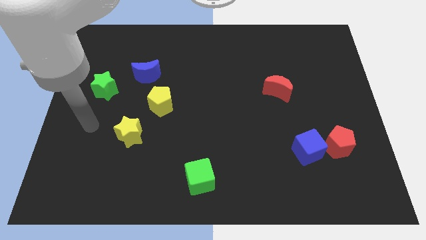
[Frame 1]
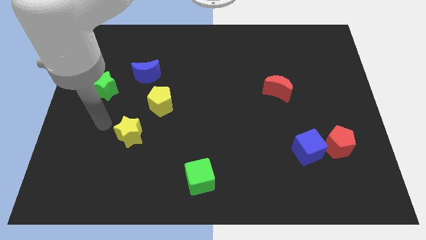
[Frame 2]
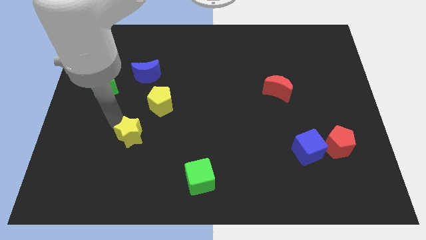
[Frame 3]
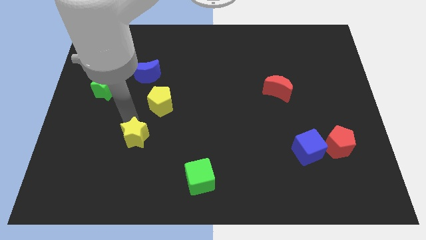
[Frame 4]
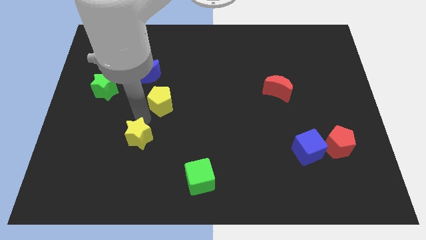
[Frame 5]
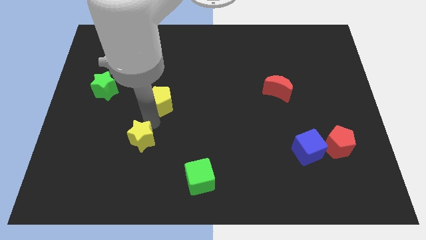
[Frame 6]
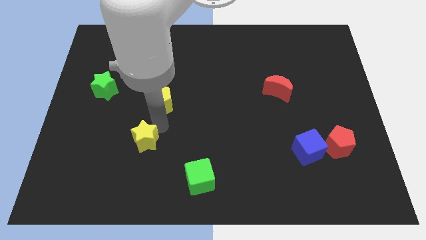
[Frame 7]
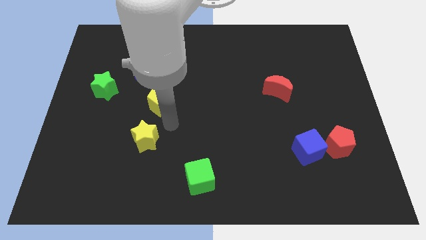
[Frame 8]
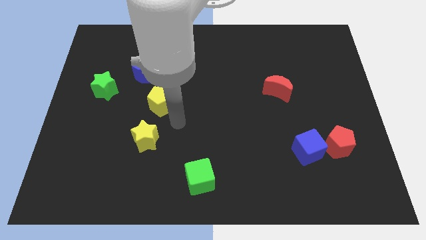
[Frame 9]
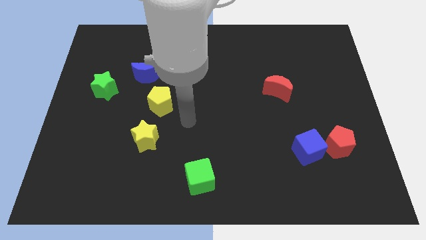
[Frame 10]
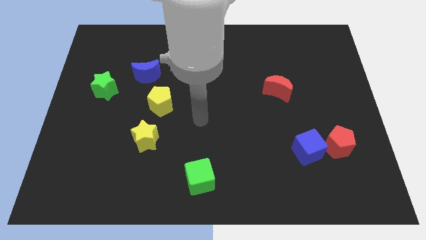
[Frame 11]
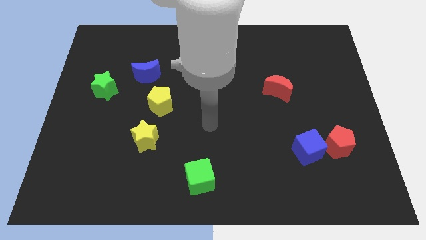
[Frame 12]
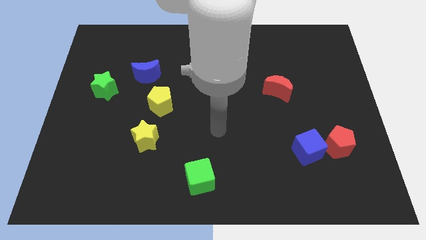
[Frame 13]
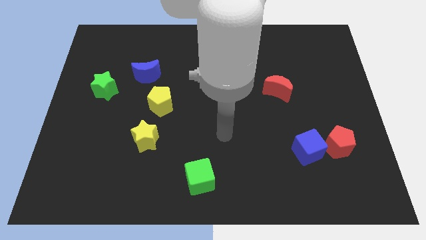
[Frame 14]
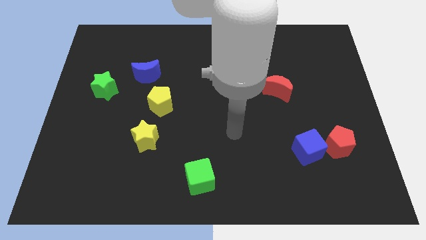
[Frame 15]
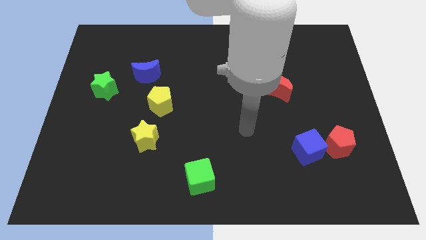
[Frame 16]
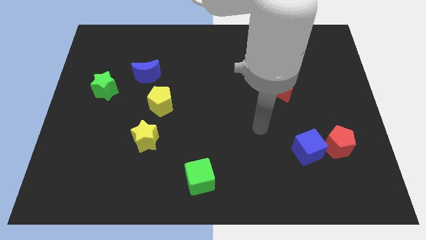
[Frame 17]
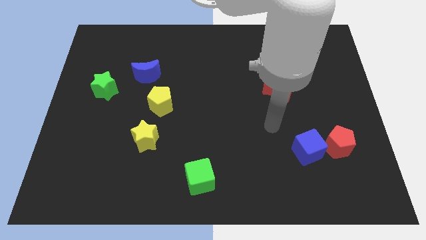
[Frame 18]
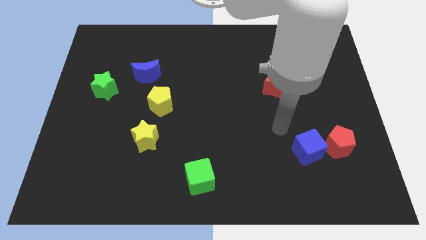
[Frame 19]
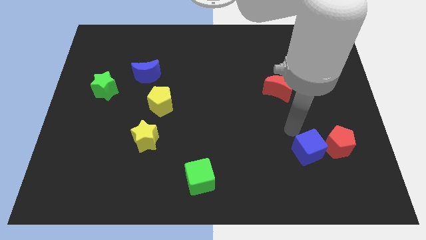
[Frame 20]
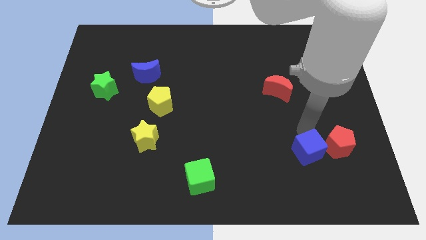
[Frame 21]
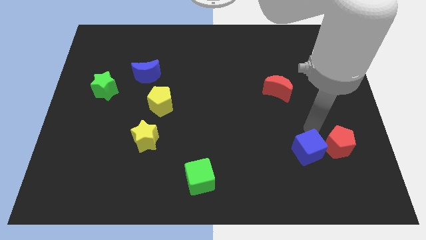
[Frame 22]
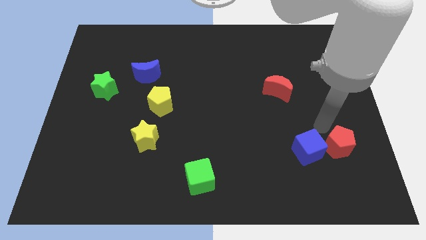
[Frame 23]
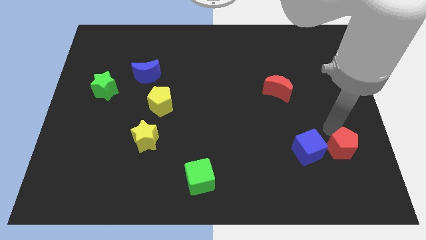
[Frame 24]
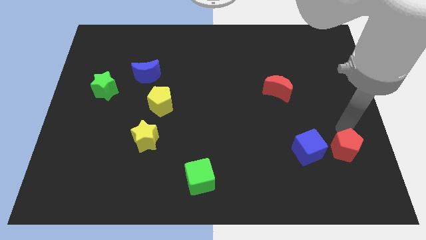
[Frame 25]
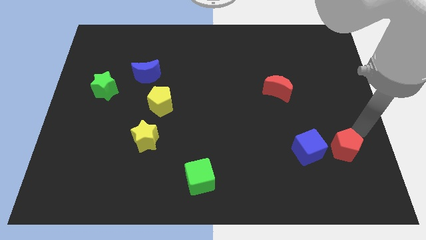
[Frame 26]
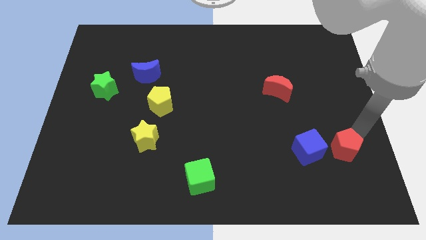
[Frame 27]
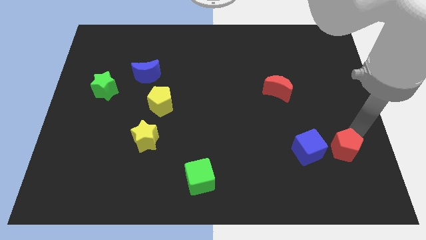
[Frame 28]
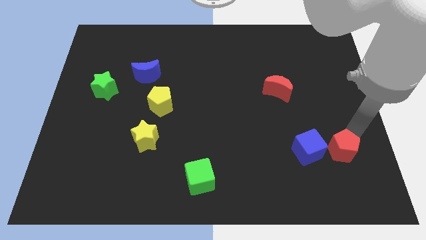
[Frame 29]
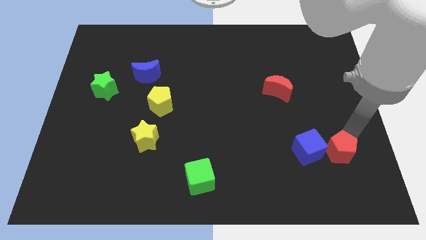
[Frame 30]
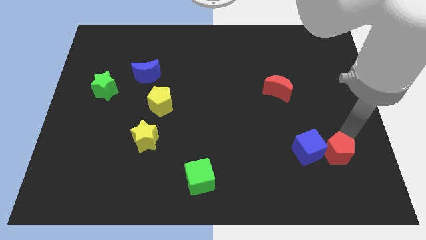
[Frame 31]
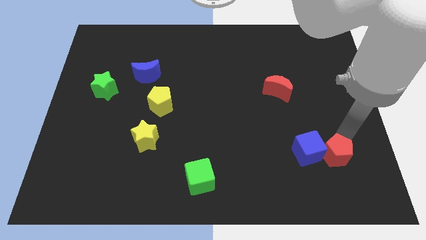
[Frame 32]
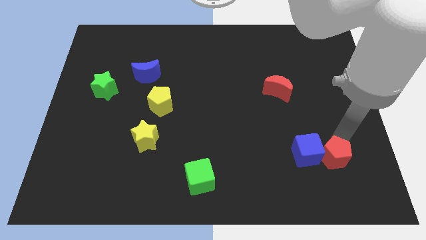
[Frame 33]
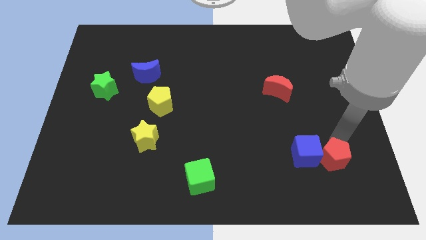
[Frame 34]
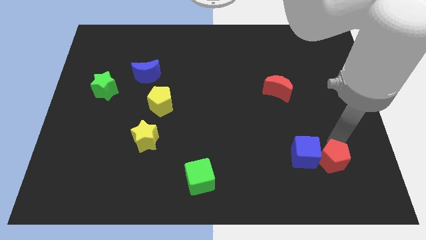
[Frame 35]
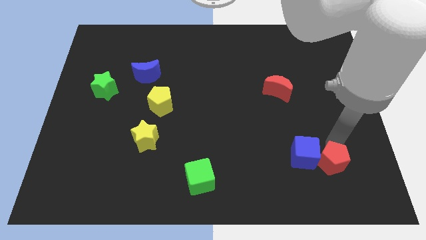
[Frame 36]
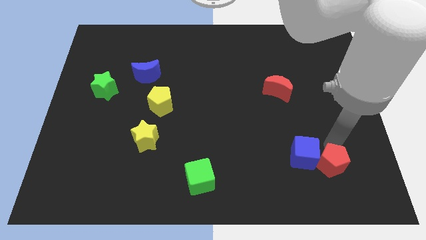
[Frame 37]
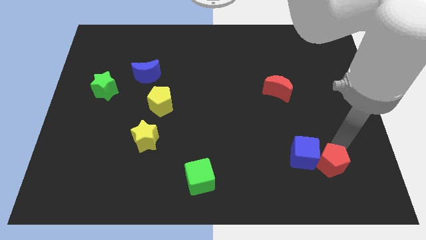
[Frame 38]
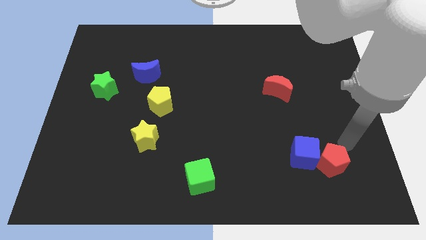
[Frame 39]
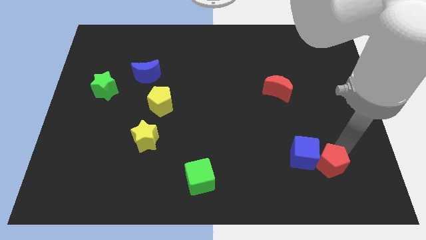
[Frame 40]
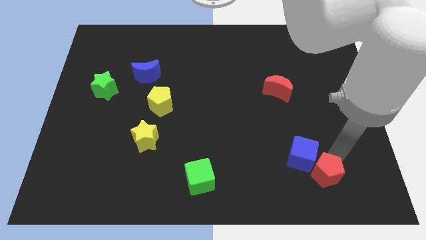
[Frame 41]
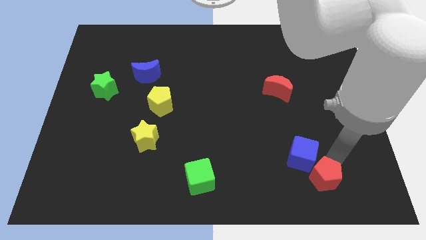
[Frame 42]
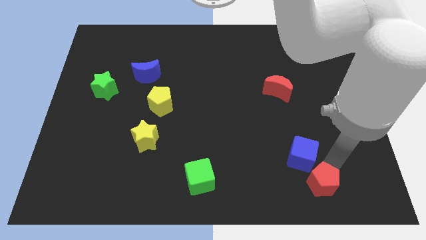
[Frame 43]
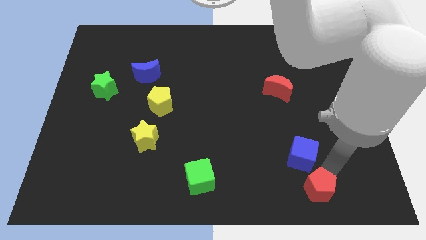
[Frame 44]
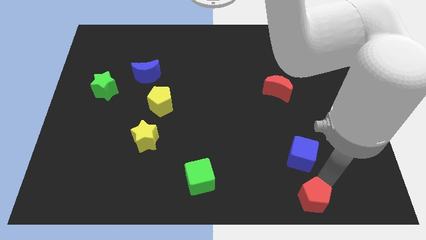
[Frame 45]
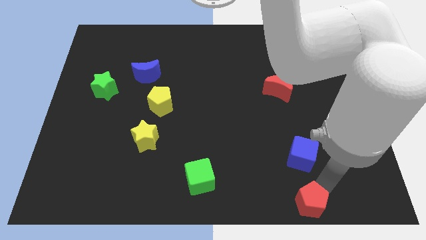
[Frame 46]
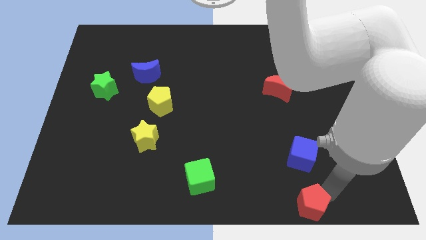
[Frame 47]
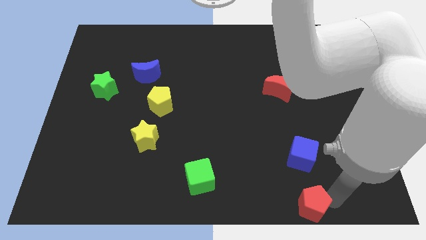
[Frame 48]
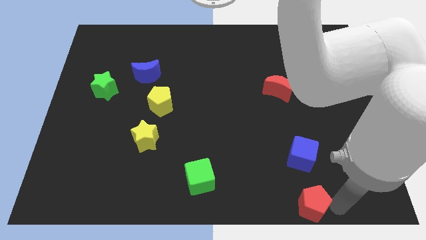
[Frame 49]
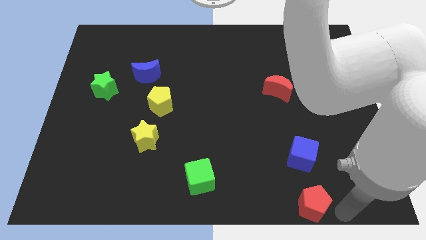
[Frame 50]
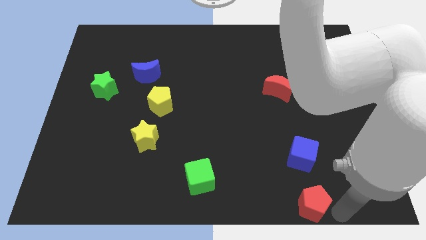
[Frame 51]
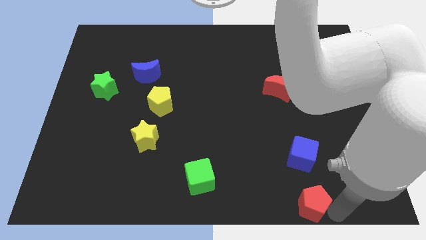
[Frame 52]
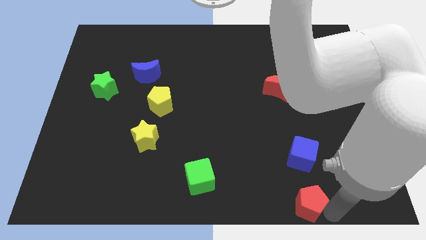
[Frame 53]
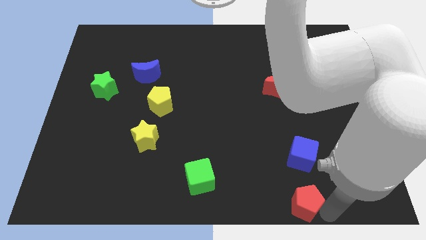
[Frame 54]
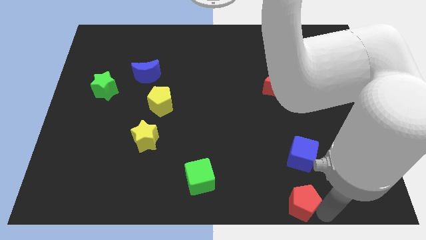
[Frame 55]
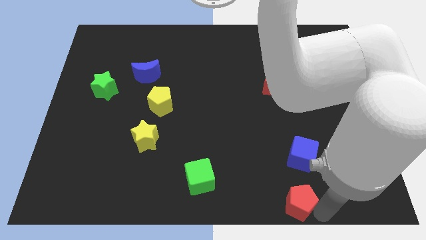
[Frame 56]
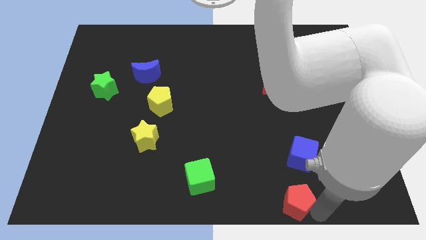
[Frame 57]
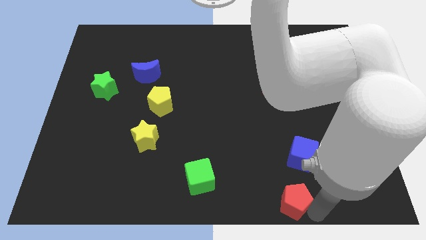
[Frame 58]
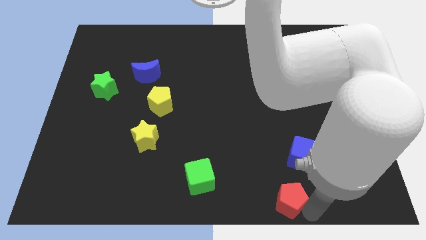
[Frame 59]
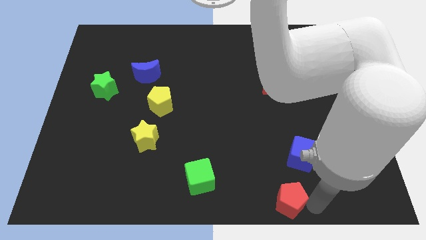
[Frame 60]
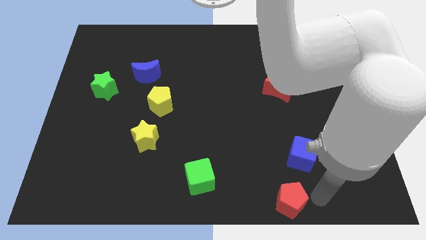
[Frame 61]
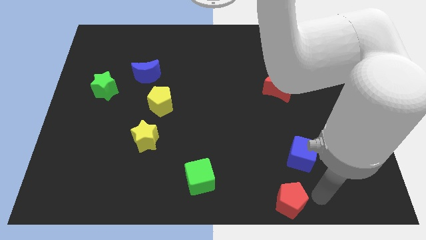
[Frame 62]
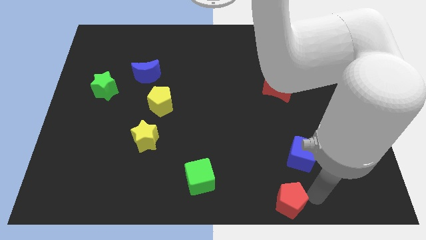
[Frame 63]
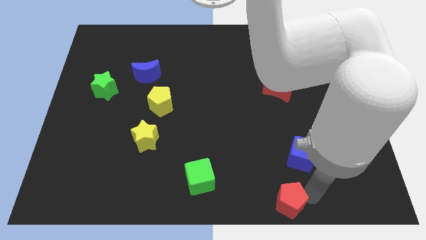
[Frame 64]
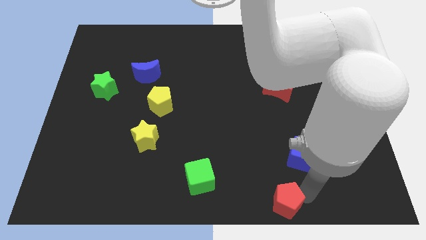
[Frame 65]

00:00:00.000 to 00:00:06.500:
slide the red pentagon to the bottom side
